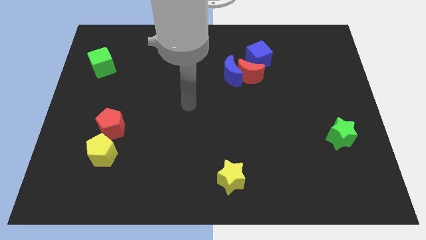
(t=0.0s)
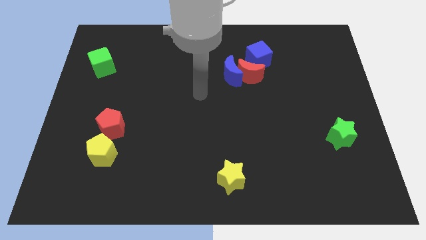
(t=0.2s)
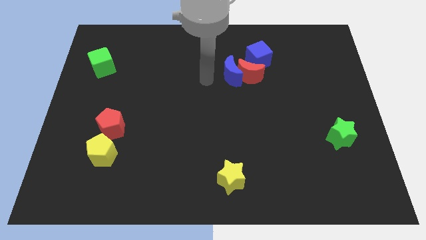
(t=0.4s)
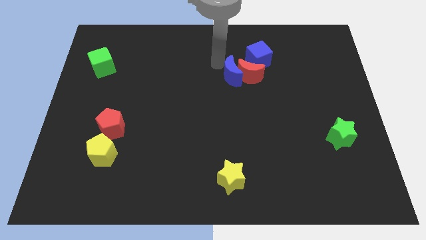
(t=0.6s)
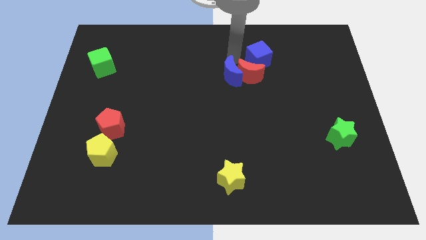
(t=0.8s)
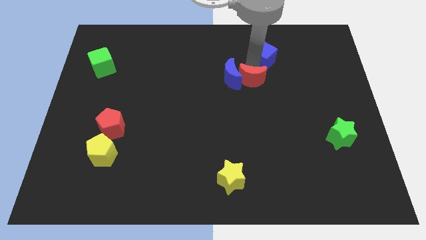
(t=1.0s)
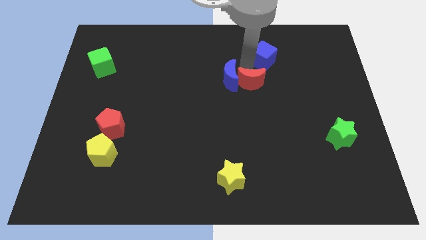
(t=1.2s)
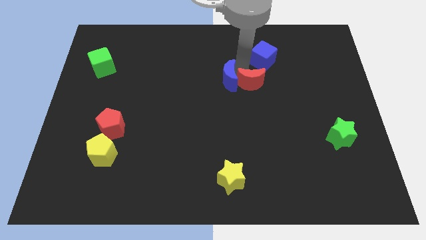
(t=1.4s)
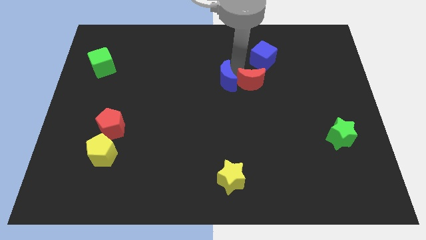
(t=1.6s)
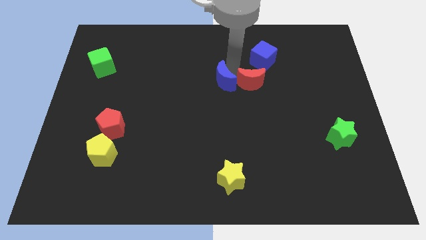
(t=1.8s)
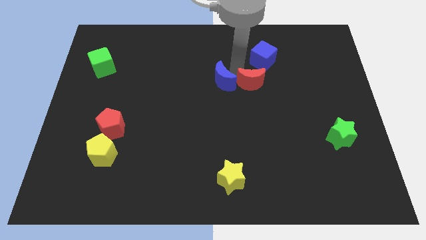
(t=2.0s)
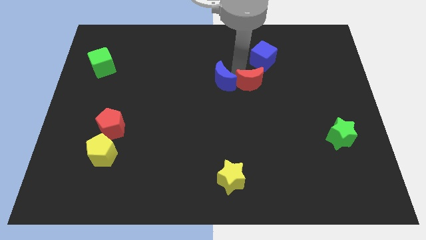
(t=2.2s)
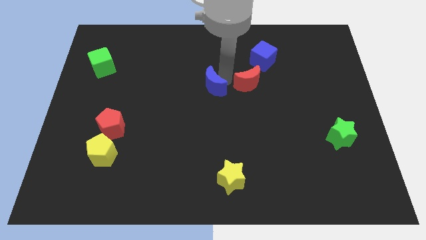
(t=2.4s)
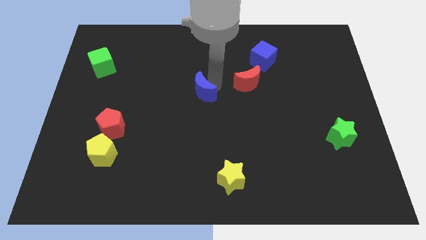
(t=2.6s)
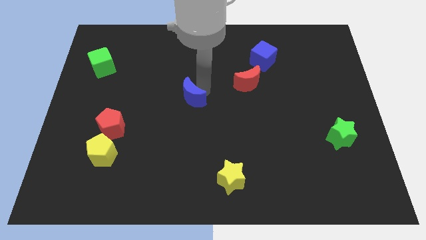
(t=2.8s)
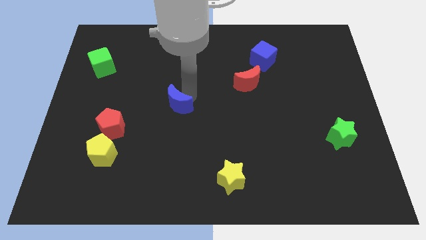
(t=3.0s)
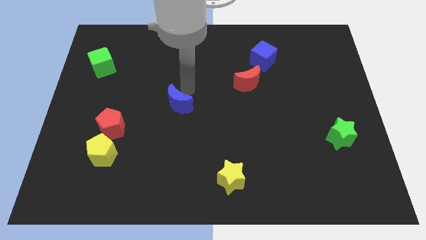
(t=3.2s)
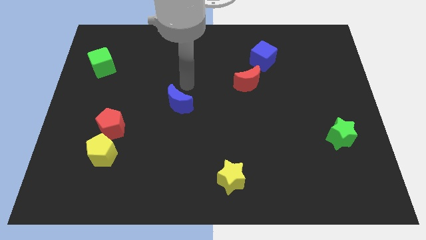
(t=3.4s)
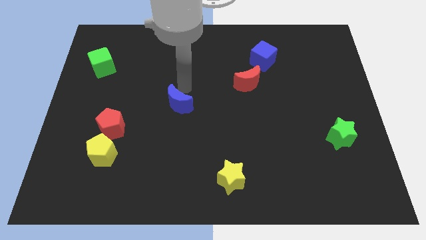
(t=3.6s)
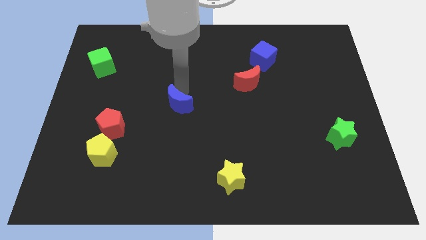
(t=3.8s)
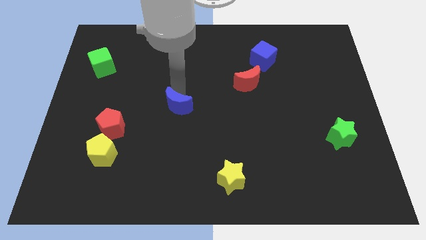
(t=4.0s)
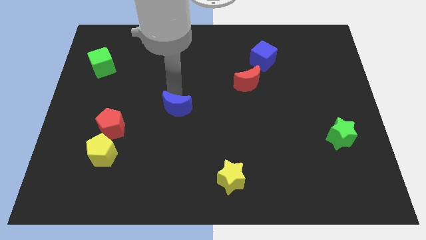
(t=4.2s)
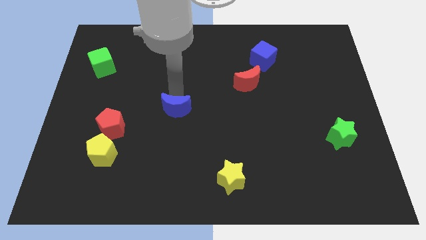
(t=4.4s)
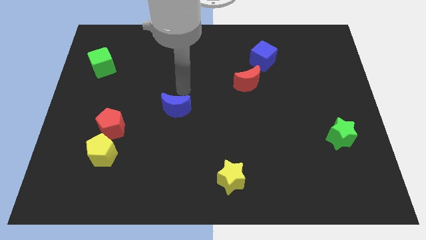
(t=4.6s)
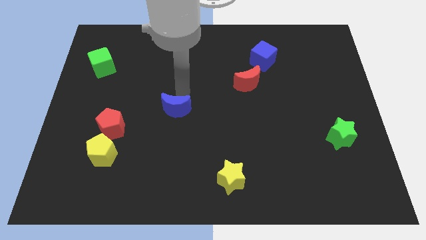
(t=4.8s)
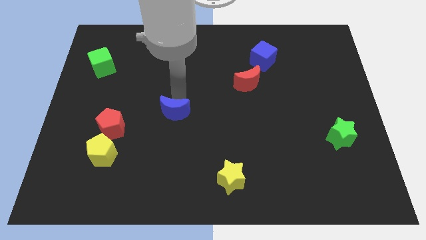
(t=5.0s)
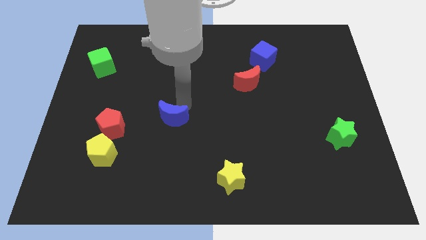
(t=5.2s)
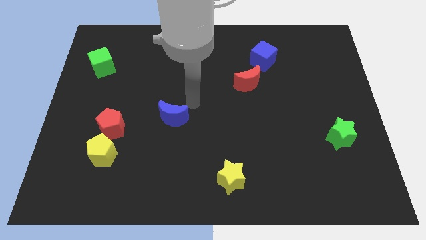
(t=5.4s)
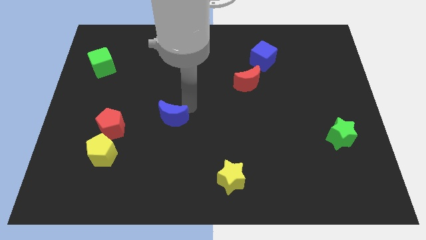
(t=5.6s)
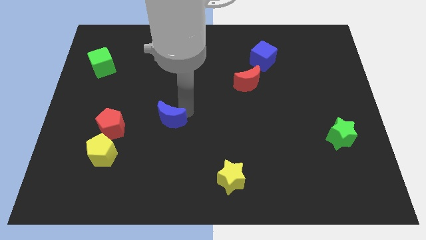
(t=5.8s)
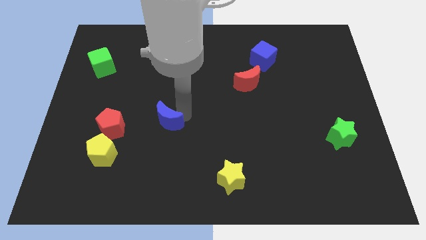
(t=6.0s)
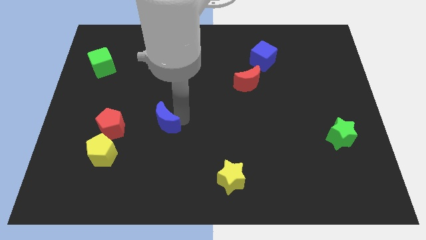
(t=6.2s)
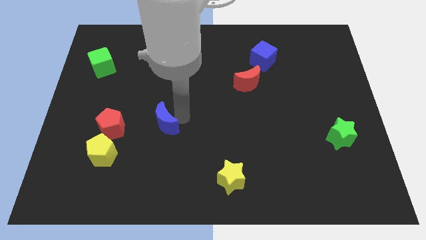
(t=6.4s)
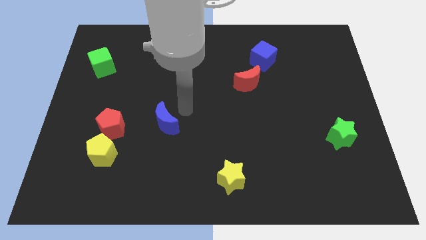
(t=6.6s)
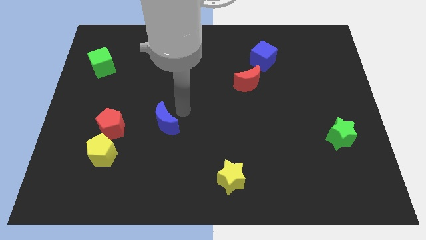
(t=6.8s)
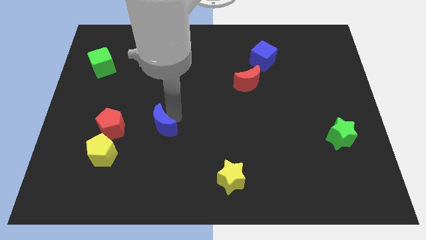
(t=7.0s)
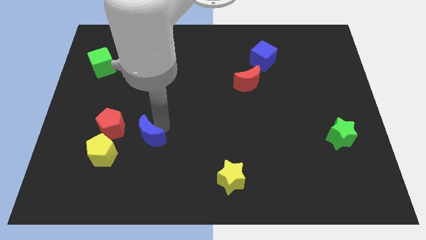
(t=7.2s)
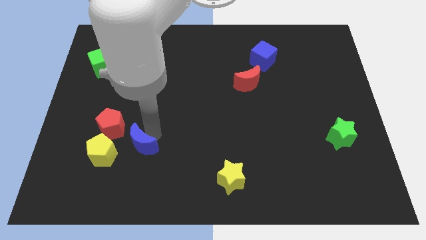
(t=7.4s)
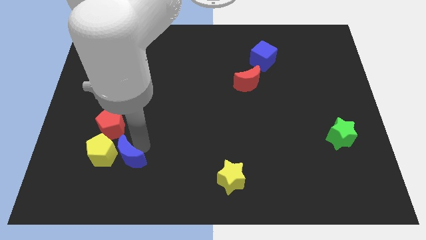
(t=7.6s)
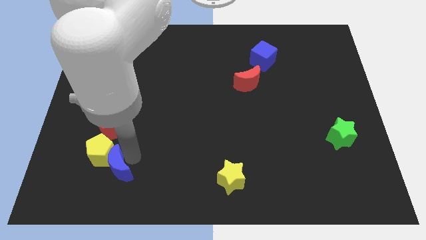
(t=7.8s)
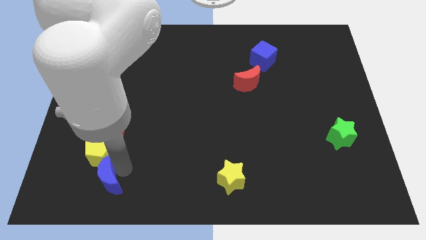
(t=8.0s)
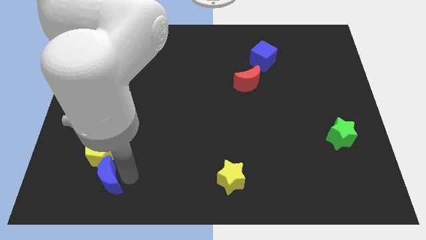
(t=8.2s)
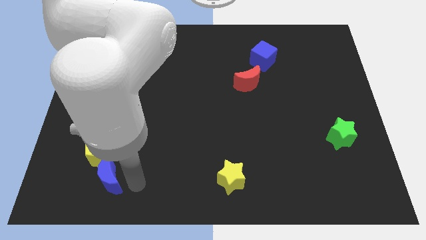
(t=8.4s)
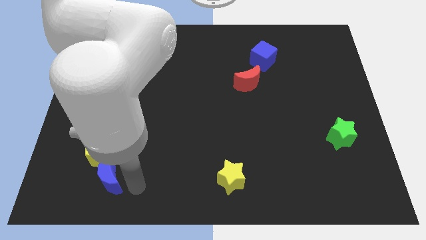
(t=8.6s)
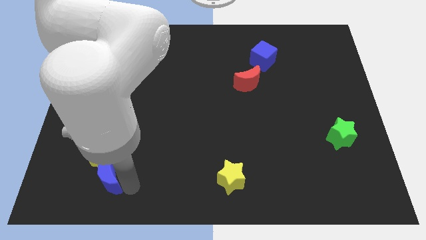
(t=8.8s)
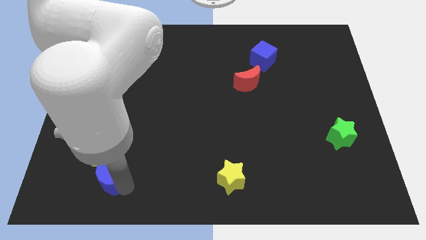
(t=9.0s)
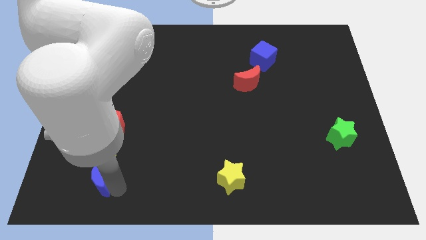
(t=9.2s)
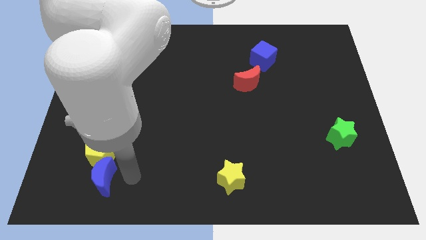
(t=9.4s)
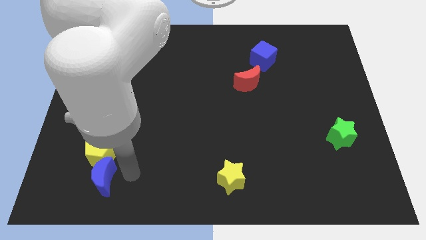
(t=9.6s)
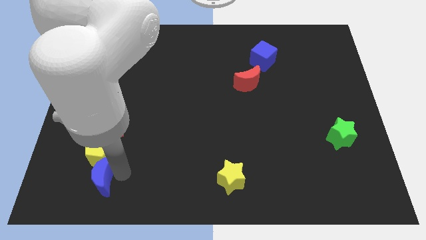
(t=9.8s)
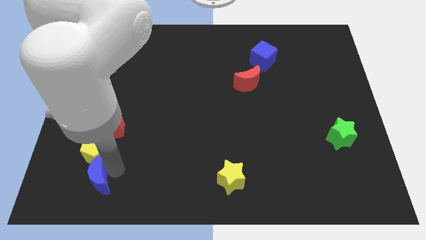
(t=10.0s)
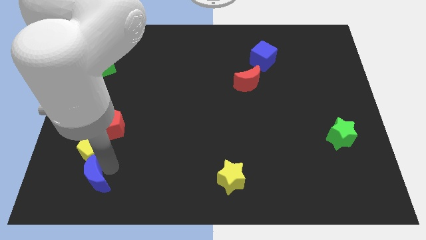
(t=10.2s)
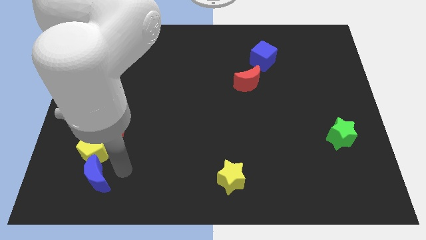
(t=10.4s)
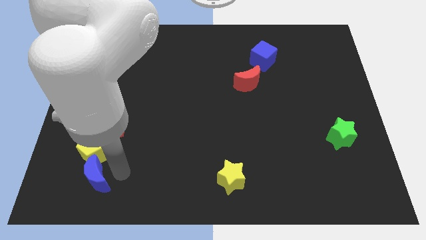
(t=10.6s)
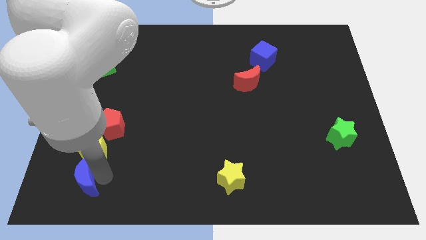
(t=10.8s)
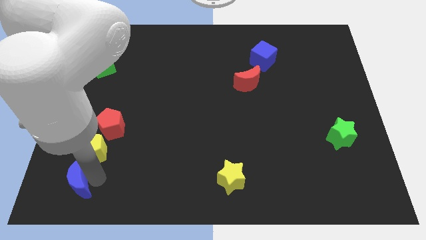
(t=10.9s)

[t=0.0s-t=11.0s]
move the blue moon to the bottom left
